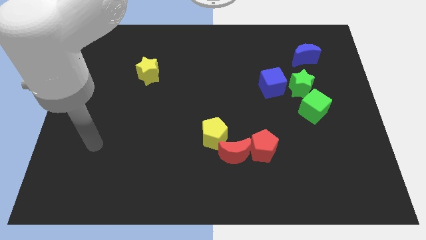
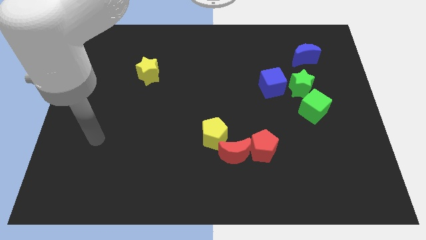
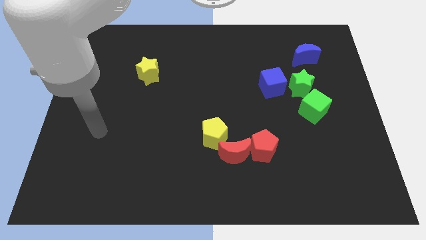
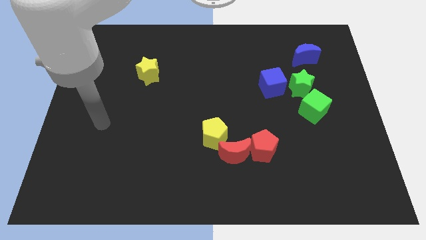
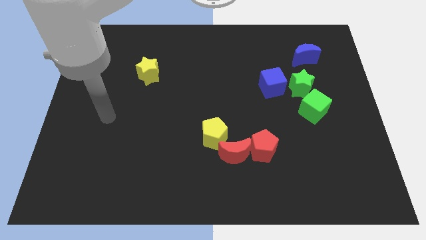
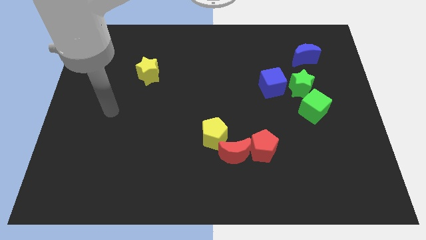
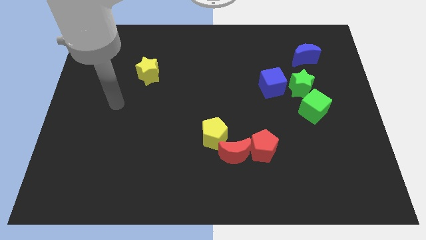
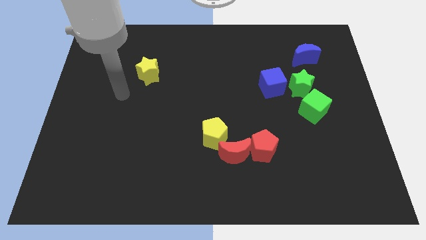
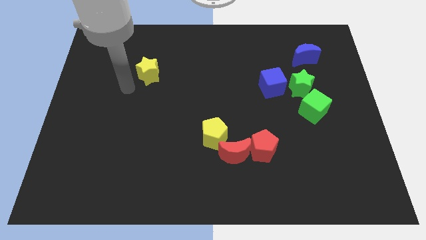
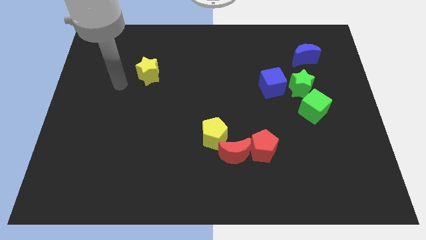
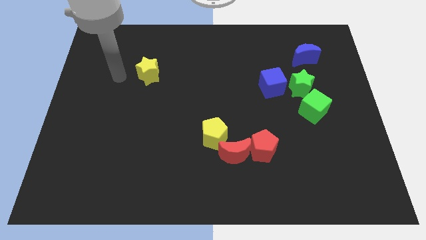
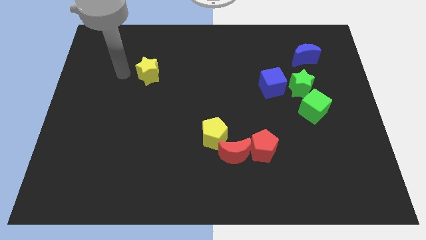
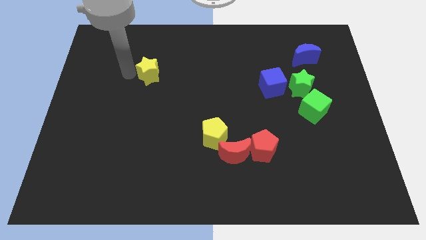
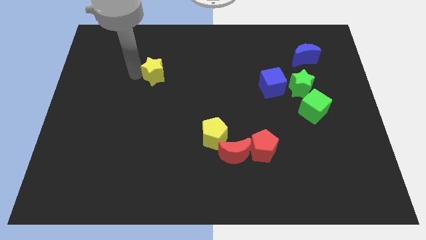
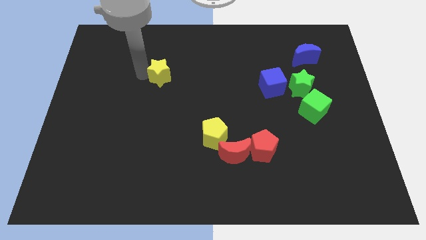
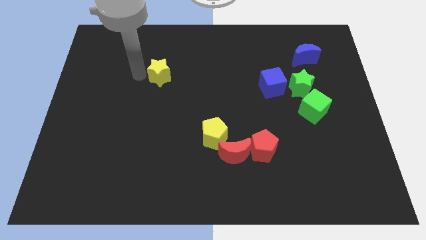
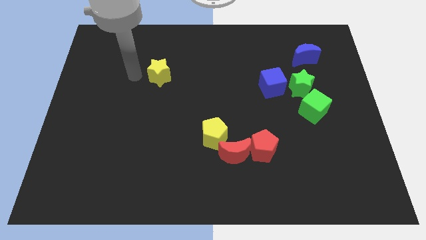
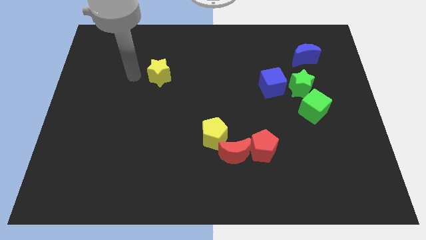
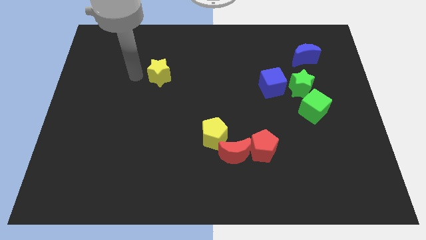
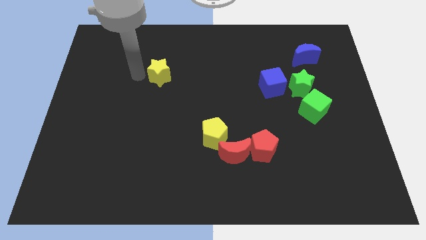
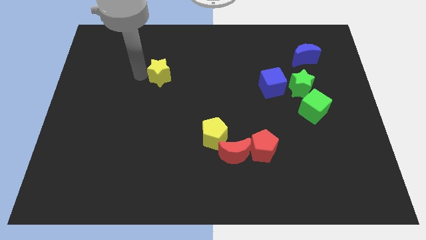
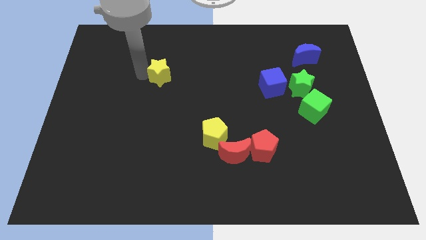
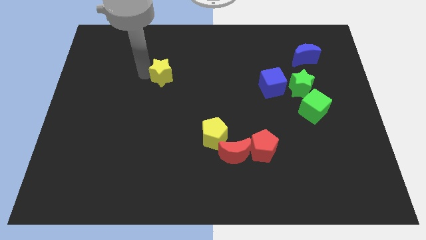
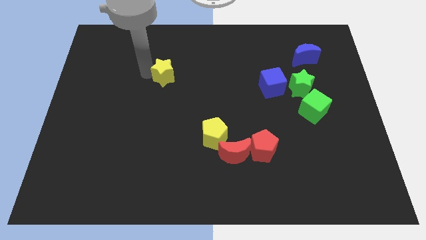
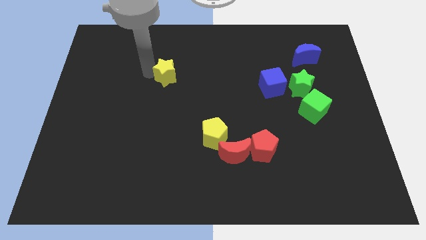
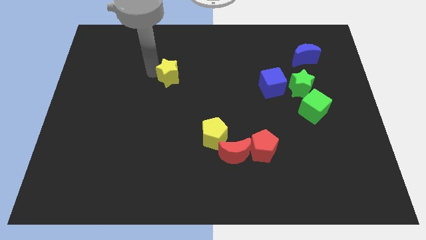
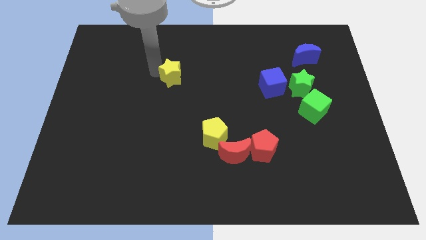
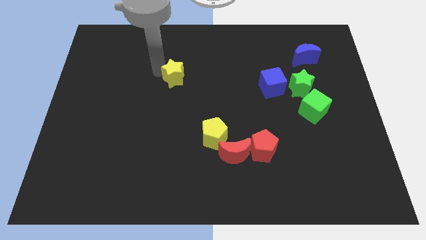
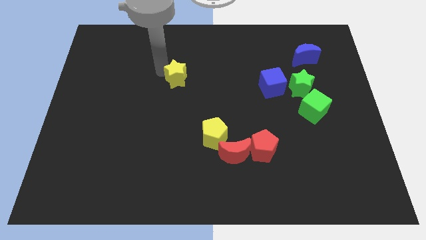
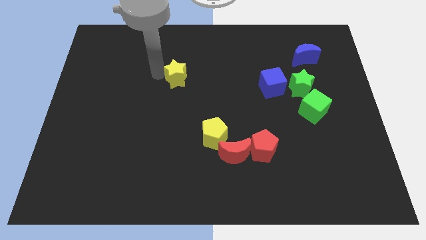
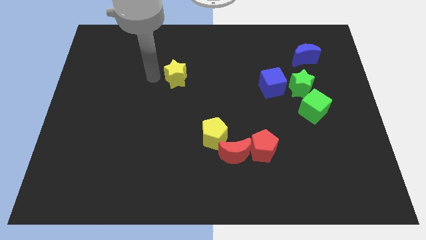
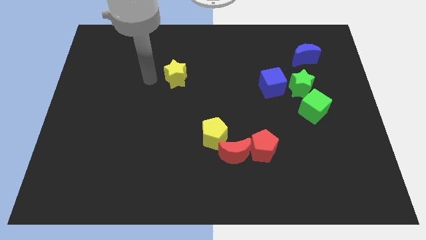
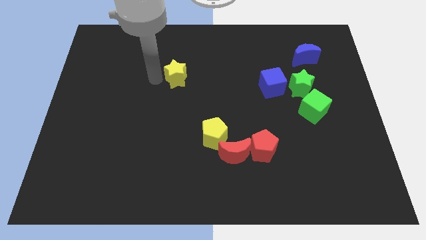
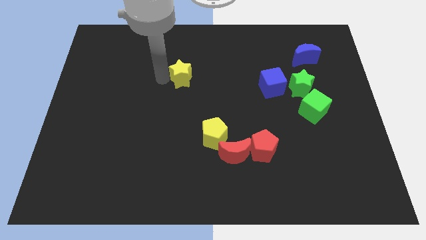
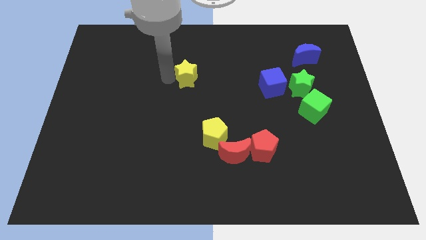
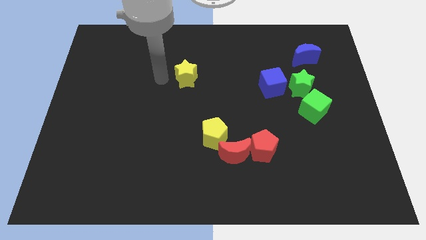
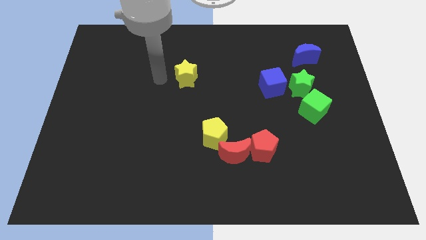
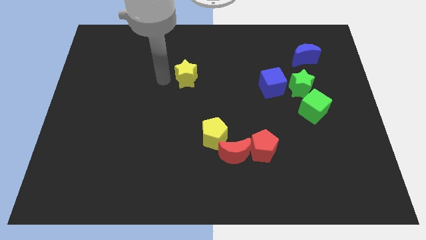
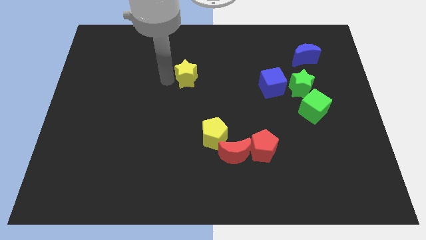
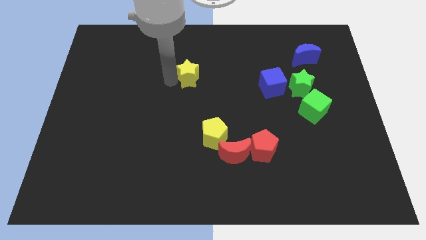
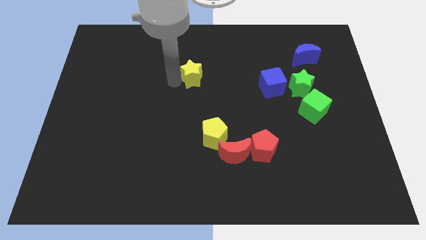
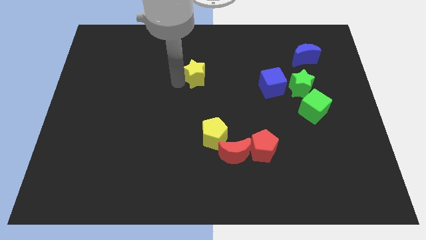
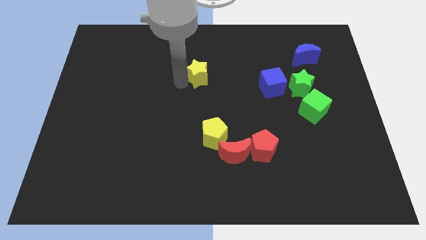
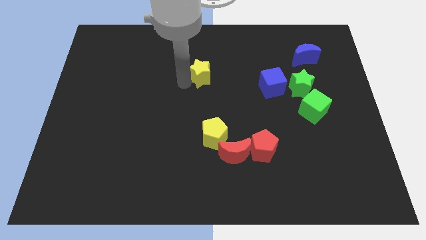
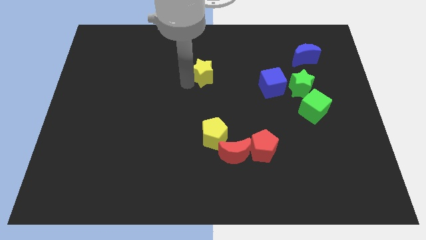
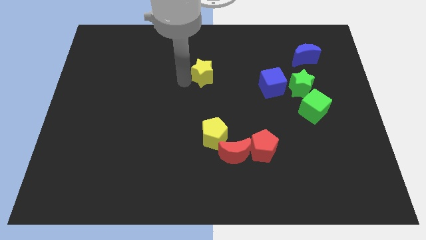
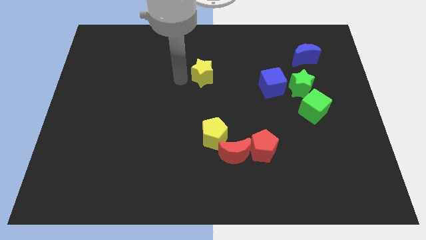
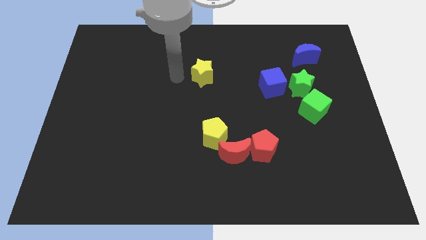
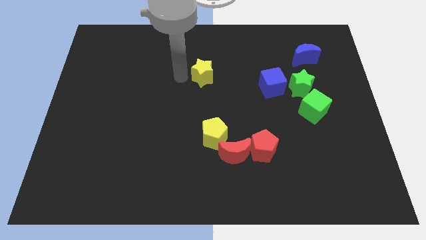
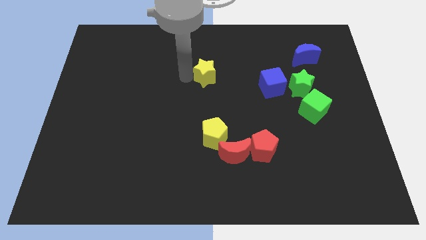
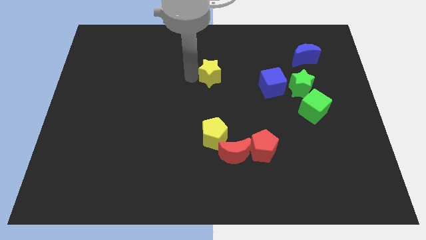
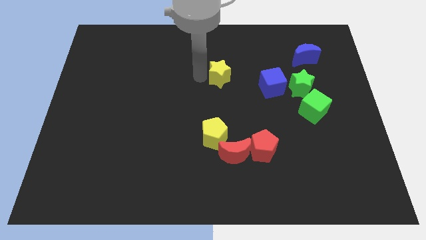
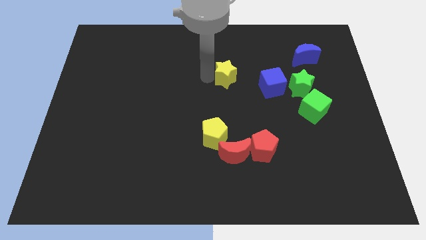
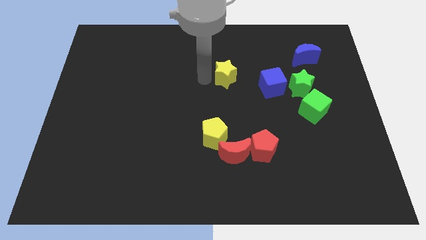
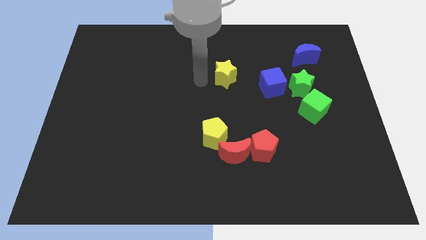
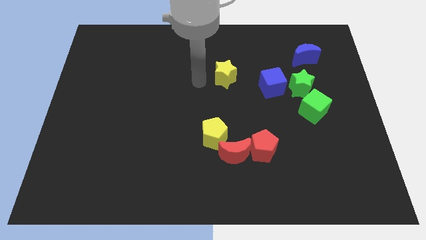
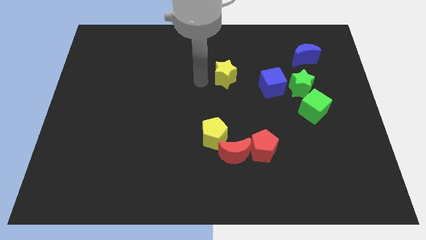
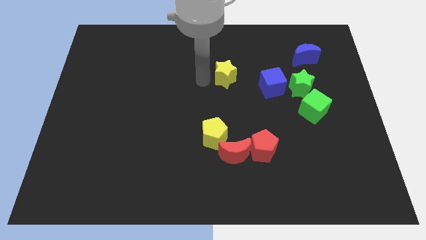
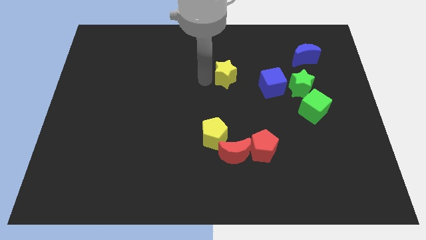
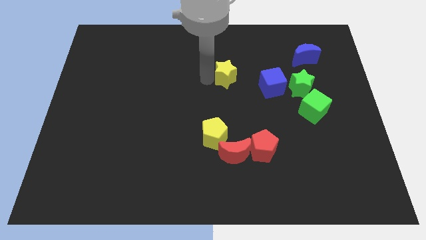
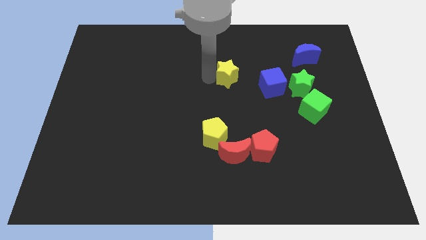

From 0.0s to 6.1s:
move the yellow star right

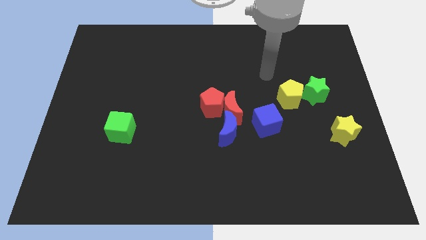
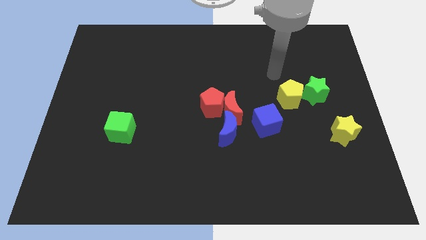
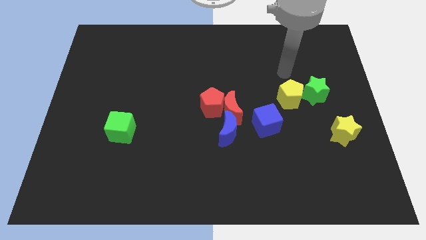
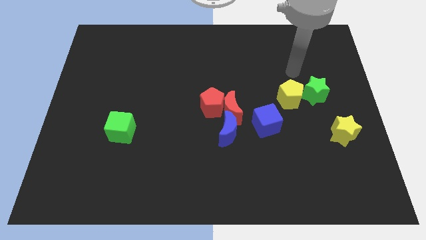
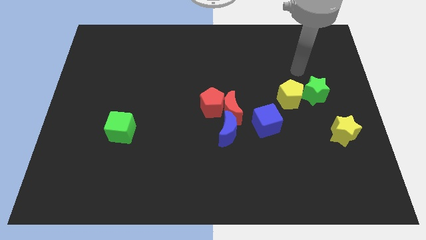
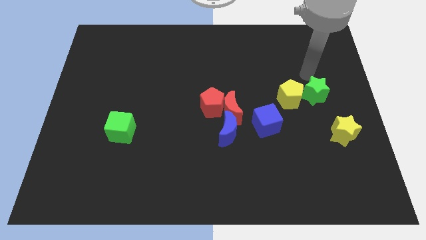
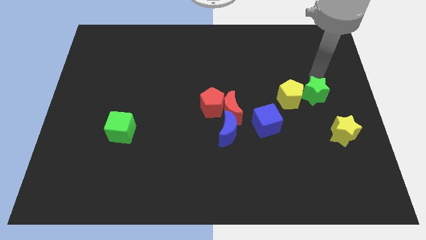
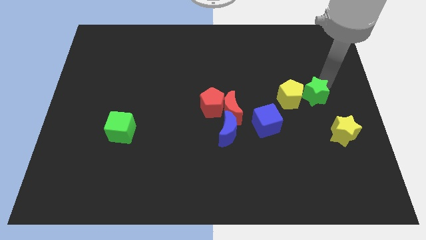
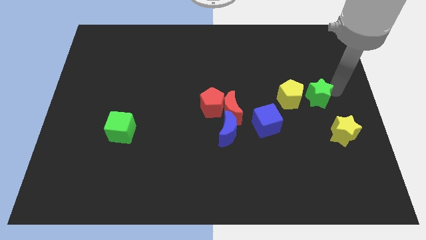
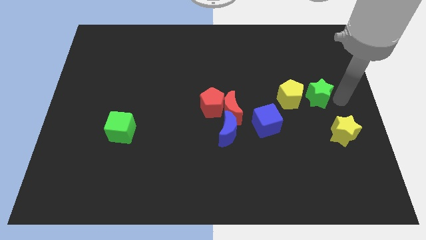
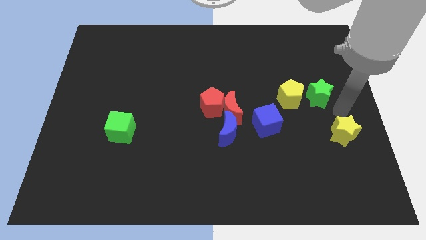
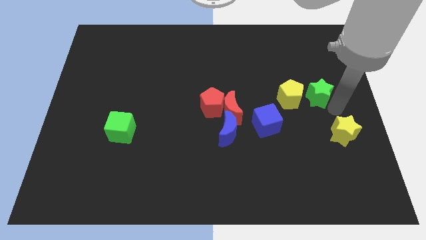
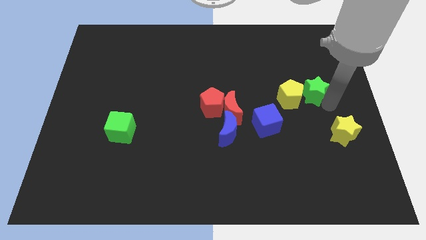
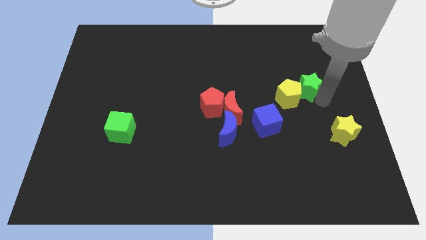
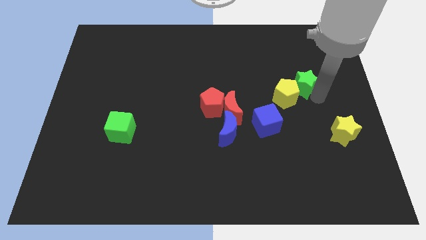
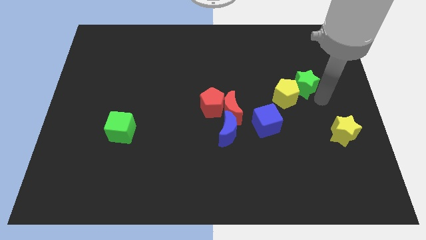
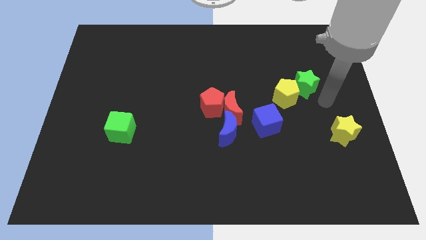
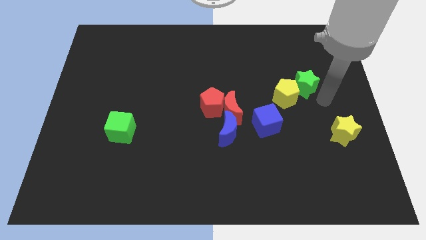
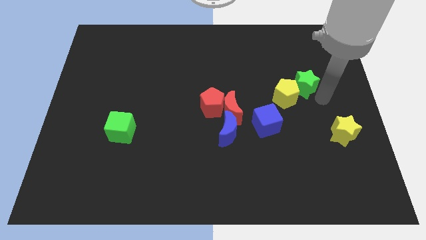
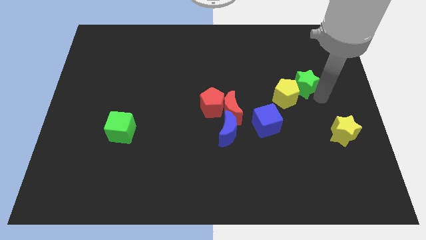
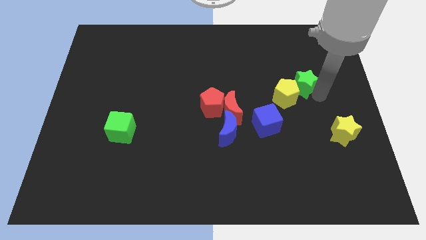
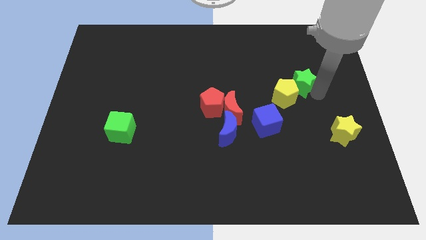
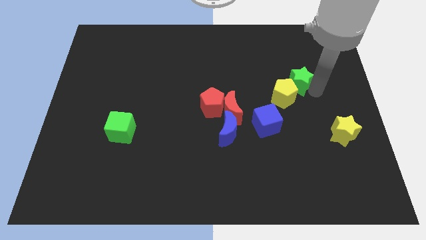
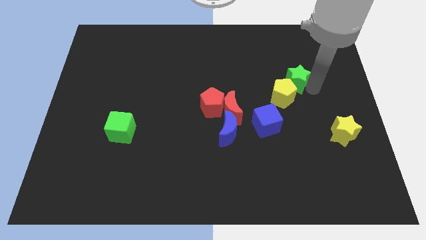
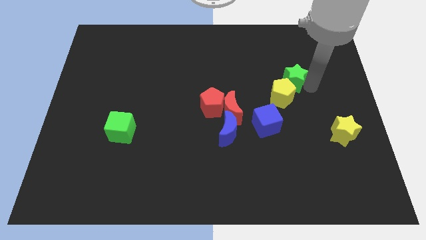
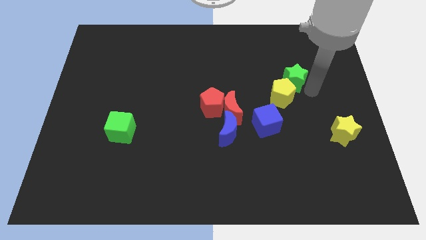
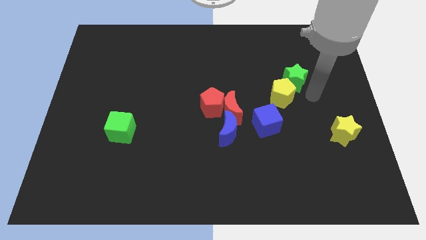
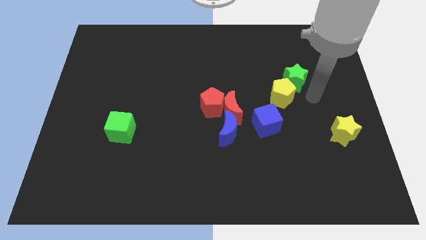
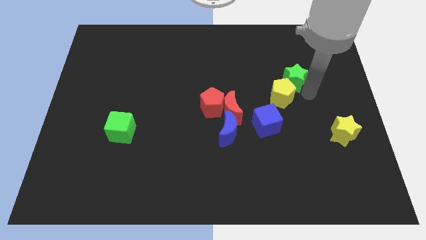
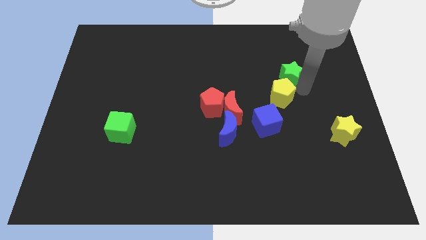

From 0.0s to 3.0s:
move the green star a bit up and left diagonally
